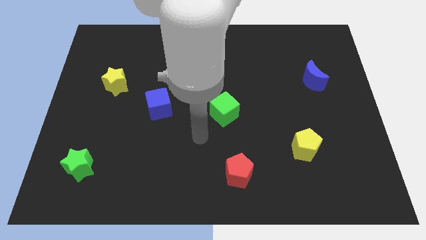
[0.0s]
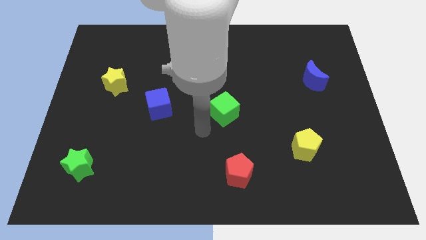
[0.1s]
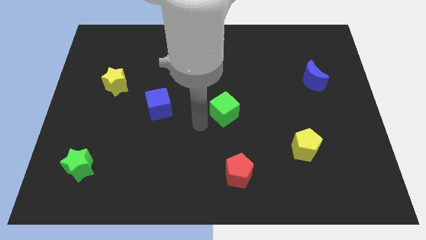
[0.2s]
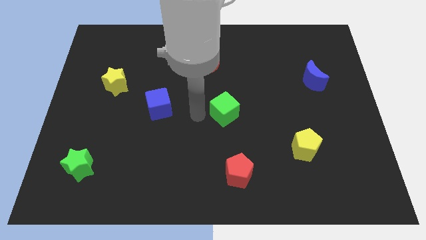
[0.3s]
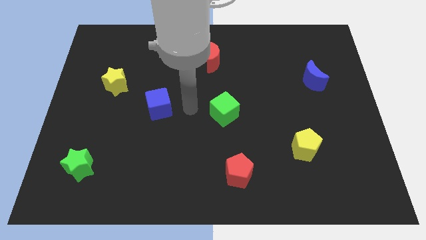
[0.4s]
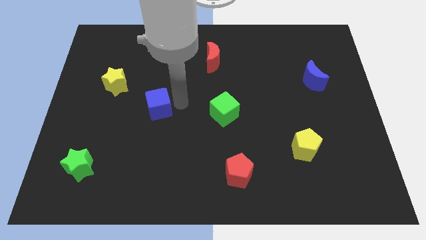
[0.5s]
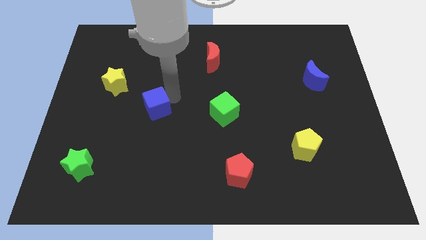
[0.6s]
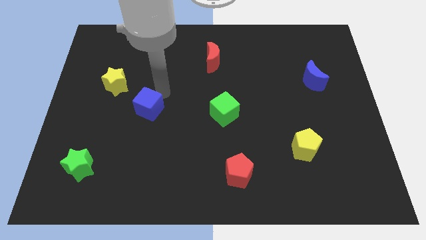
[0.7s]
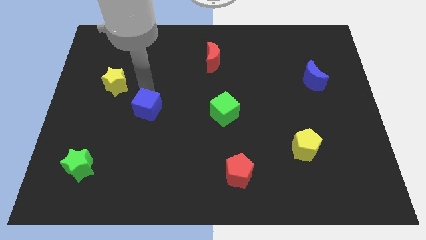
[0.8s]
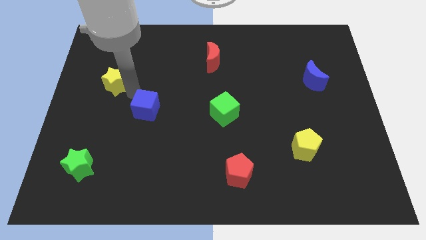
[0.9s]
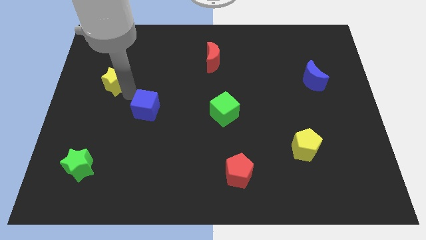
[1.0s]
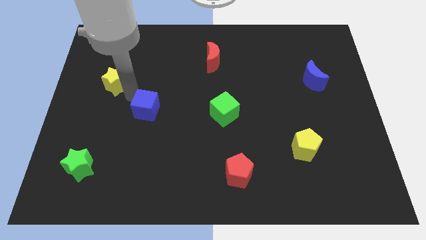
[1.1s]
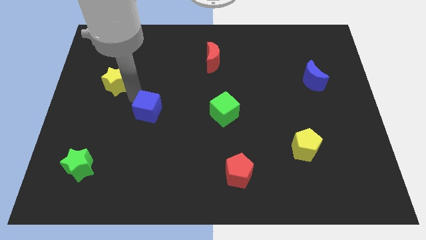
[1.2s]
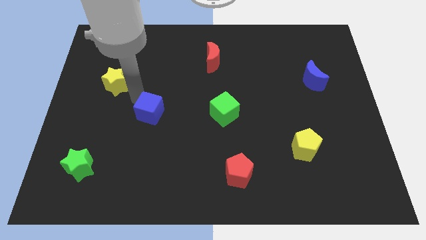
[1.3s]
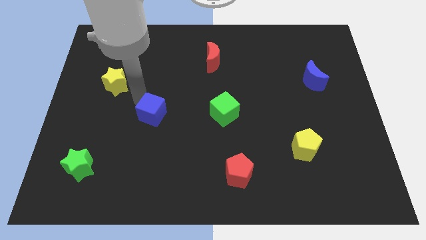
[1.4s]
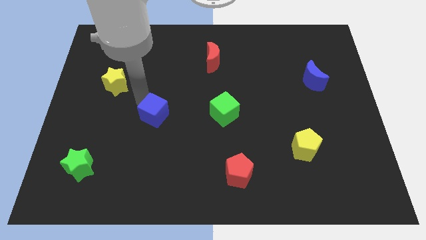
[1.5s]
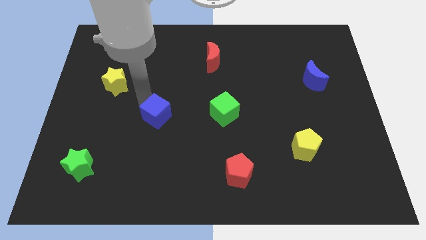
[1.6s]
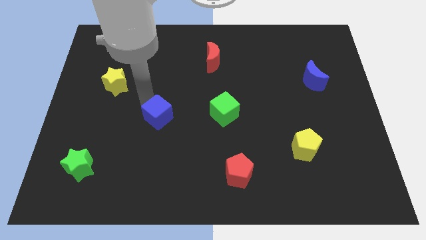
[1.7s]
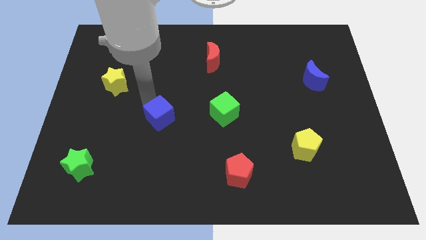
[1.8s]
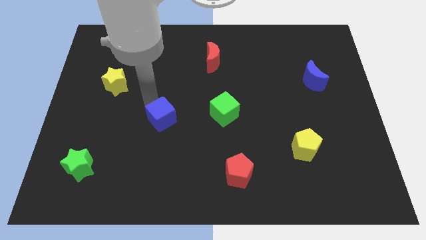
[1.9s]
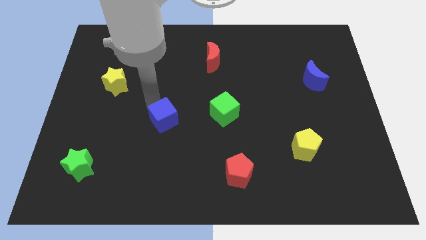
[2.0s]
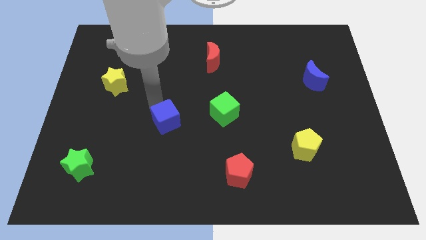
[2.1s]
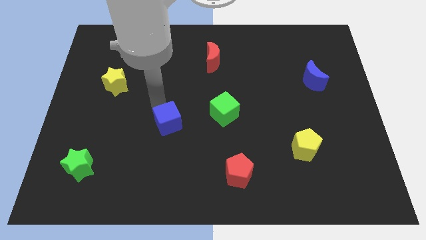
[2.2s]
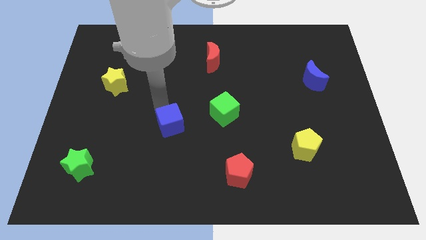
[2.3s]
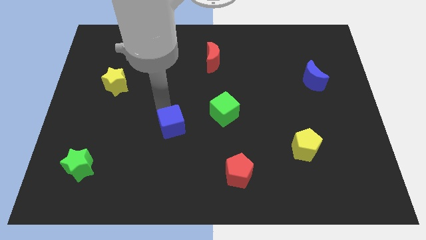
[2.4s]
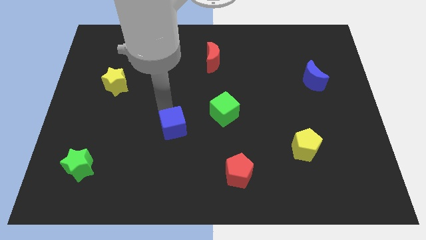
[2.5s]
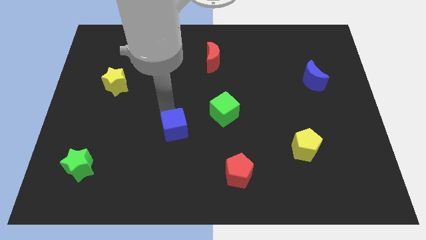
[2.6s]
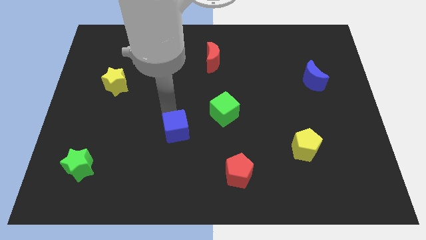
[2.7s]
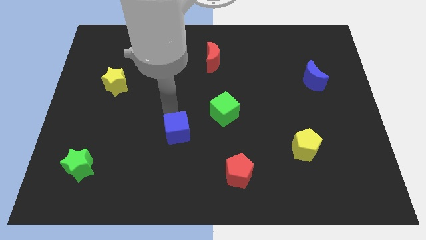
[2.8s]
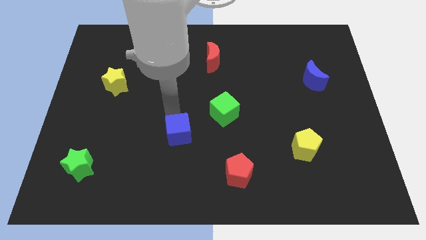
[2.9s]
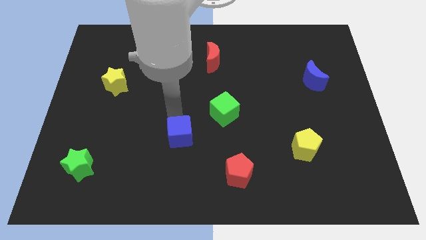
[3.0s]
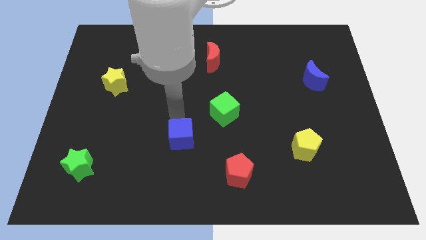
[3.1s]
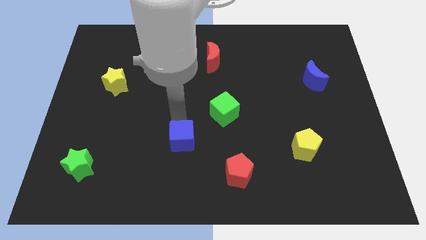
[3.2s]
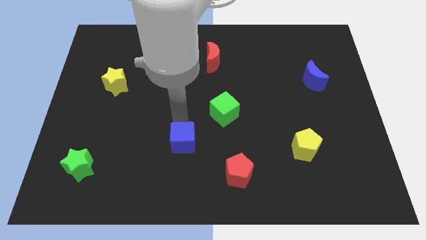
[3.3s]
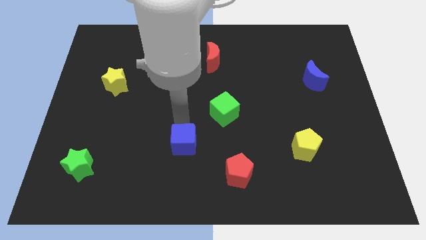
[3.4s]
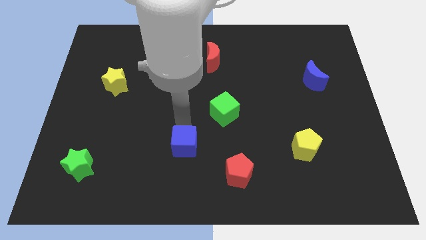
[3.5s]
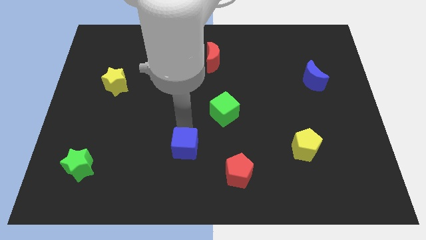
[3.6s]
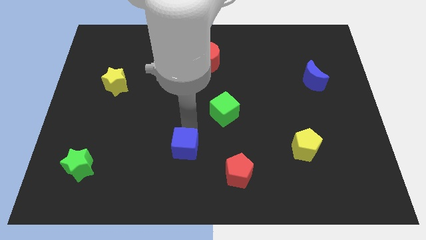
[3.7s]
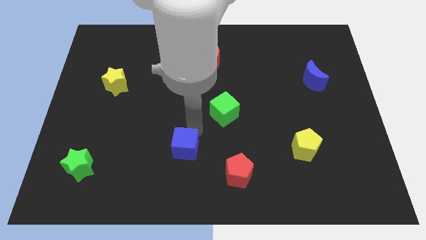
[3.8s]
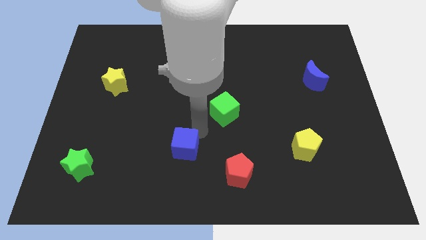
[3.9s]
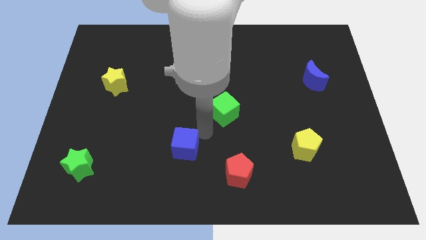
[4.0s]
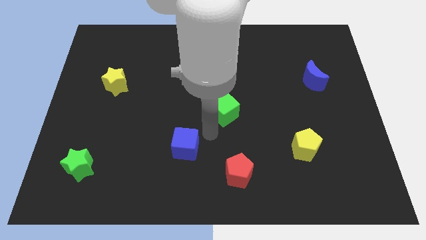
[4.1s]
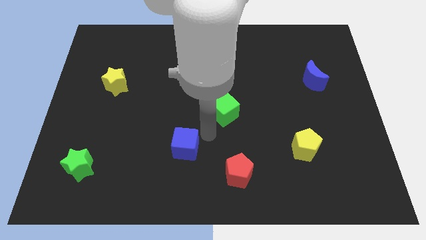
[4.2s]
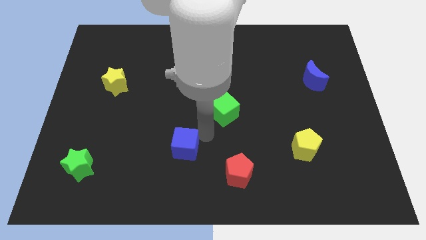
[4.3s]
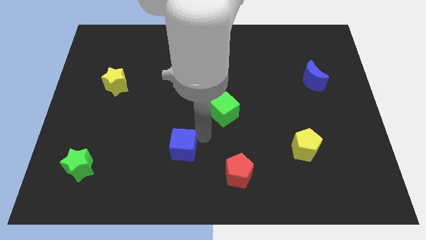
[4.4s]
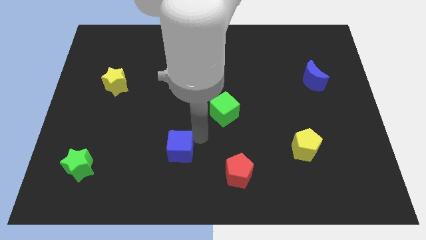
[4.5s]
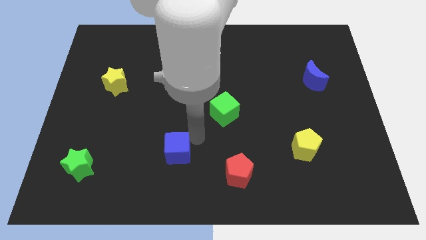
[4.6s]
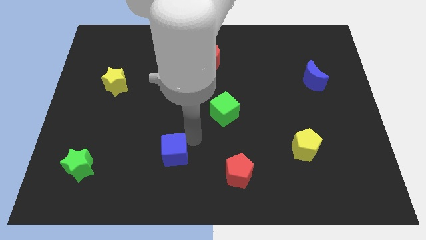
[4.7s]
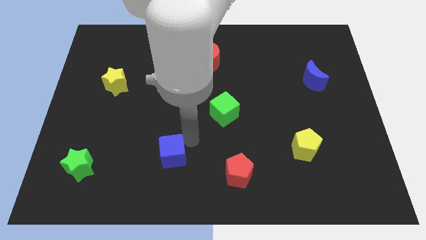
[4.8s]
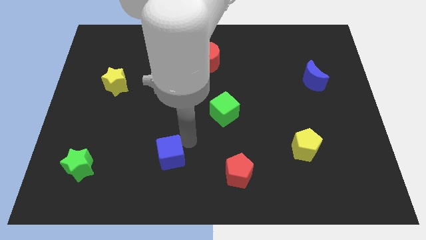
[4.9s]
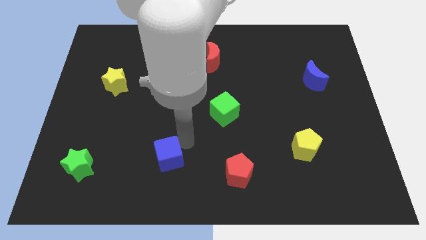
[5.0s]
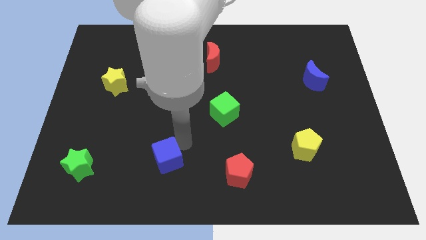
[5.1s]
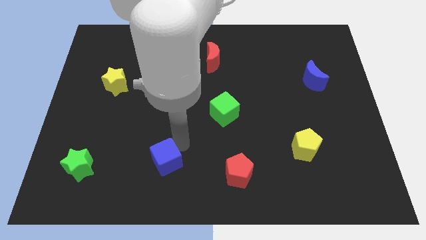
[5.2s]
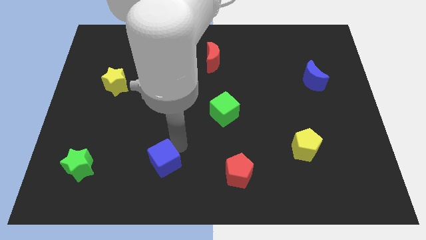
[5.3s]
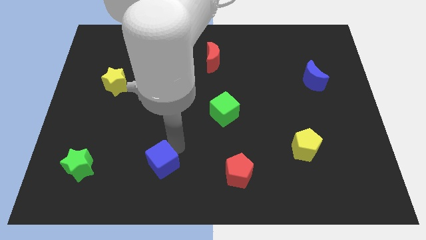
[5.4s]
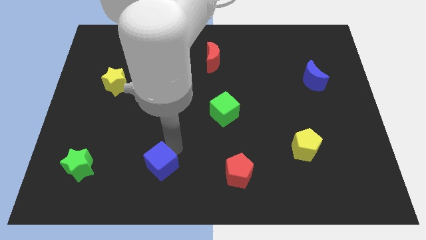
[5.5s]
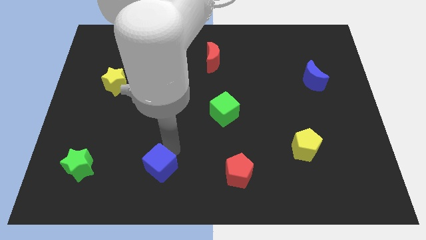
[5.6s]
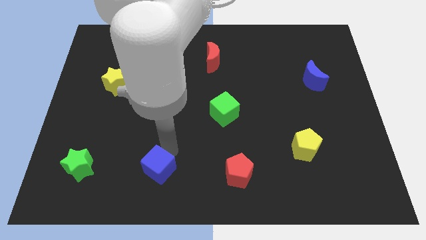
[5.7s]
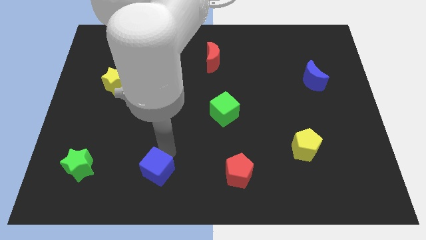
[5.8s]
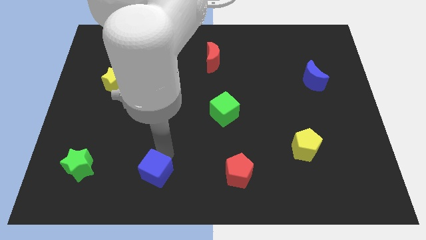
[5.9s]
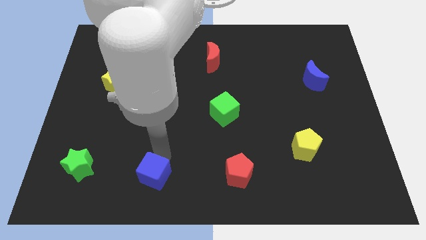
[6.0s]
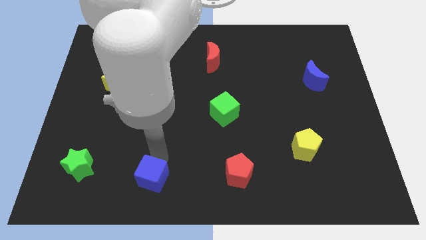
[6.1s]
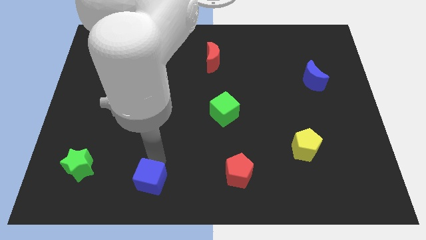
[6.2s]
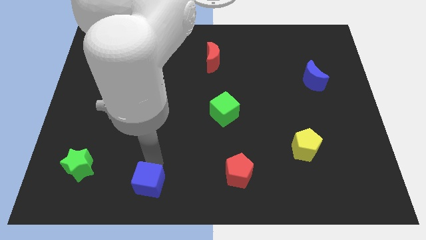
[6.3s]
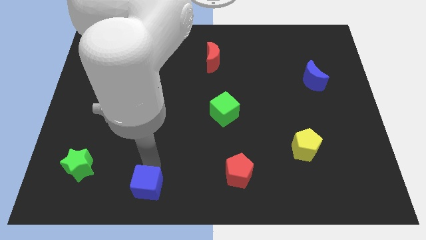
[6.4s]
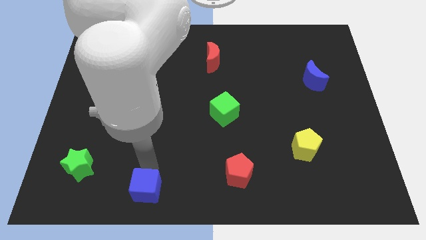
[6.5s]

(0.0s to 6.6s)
slide the blue cube to the bottom

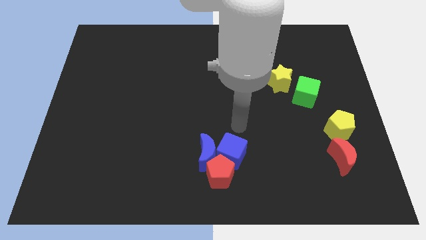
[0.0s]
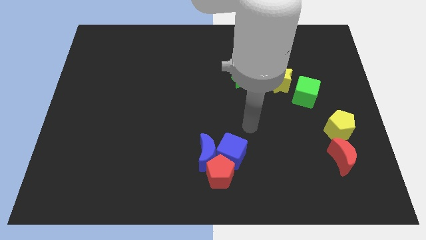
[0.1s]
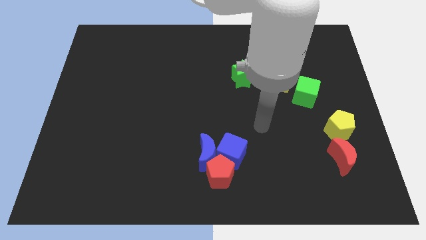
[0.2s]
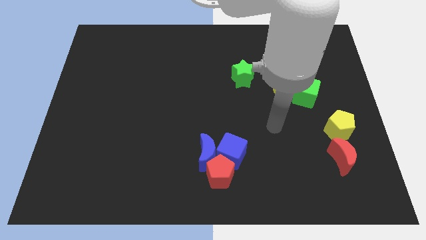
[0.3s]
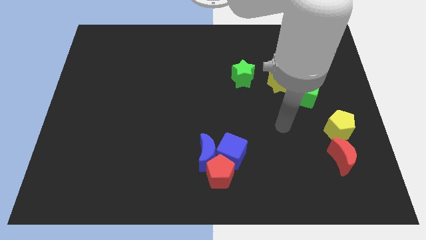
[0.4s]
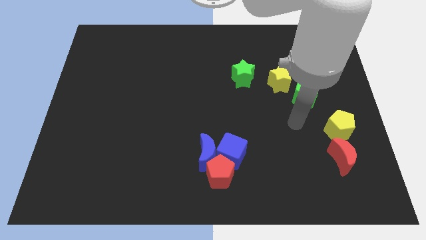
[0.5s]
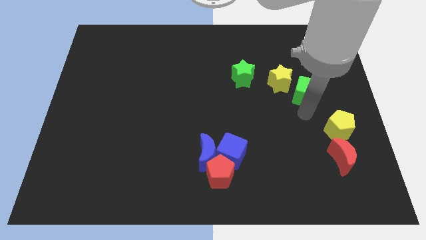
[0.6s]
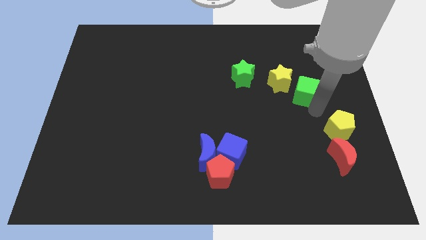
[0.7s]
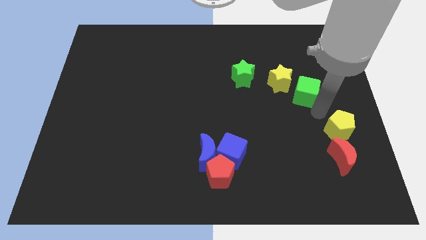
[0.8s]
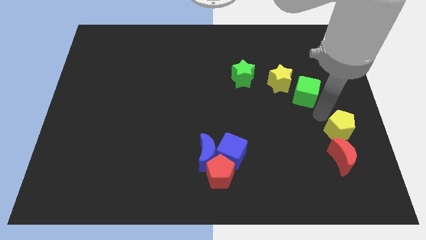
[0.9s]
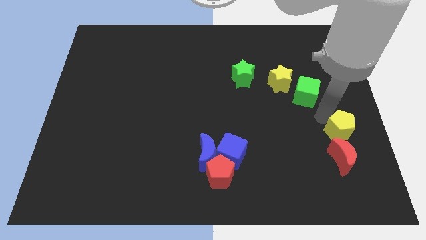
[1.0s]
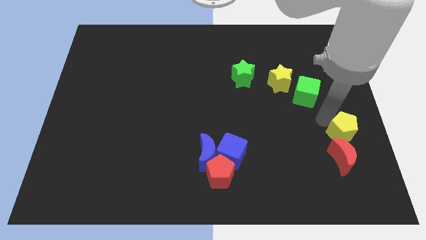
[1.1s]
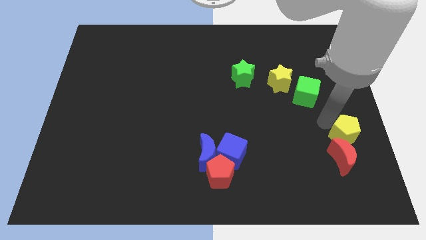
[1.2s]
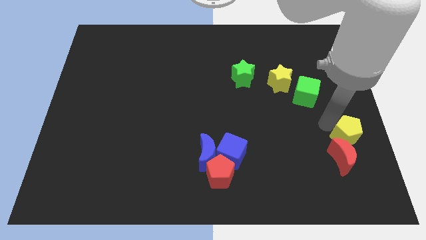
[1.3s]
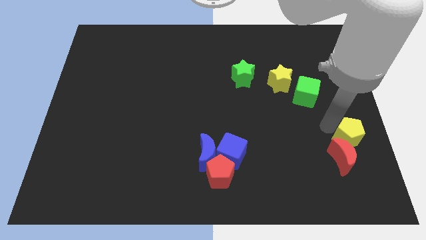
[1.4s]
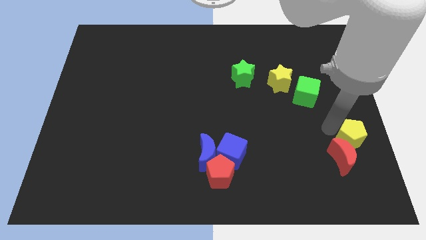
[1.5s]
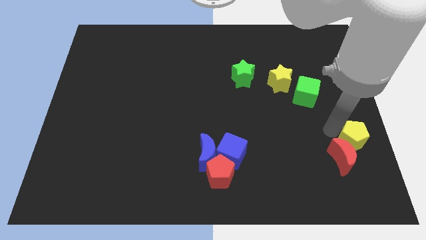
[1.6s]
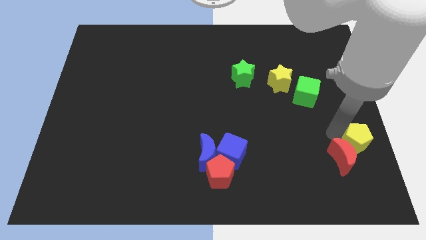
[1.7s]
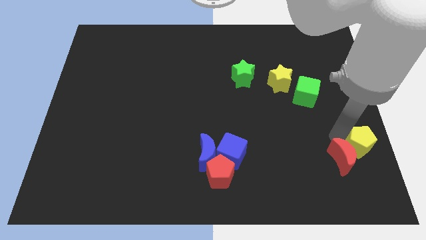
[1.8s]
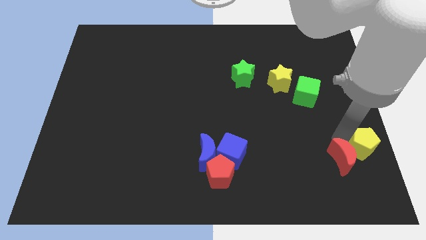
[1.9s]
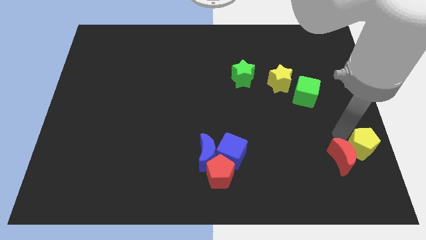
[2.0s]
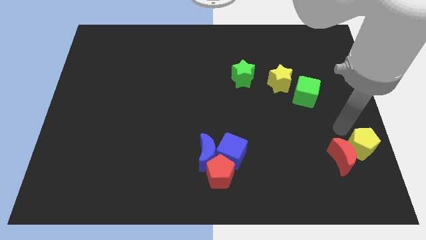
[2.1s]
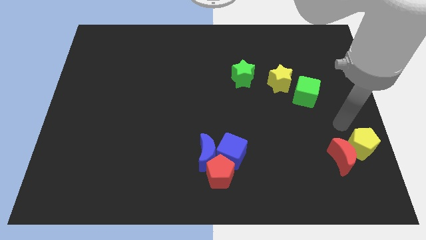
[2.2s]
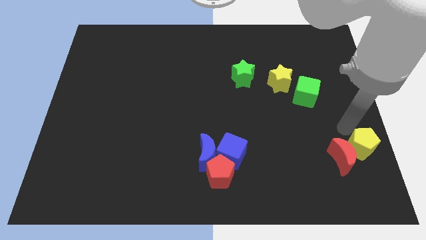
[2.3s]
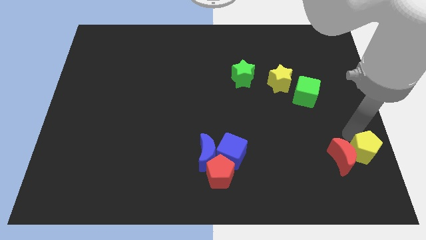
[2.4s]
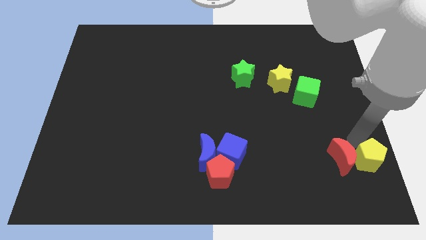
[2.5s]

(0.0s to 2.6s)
move the yellow pentagon to the lower right corner
